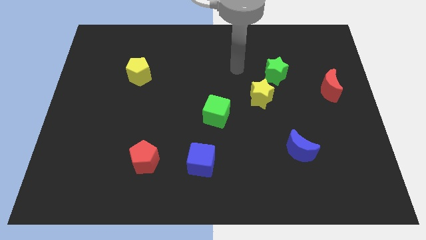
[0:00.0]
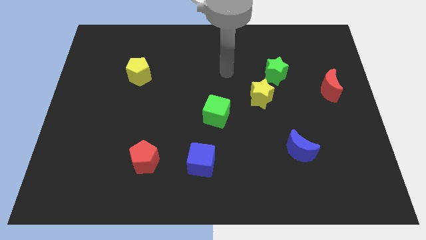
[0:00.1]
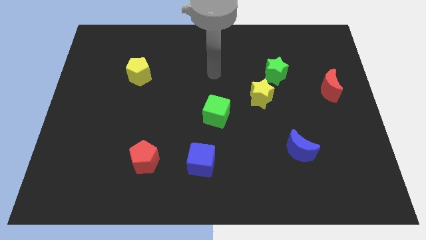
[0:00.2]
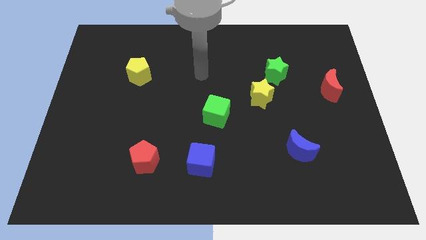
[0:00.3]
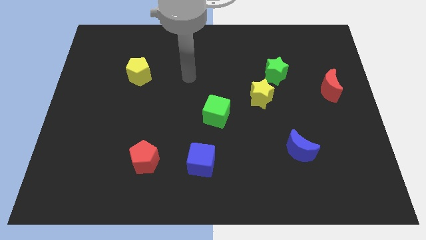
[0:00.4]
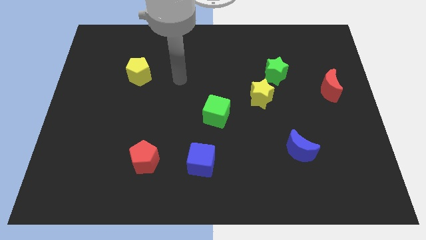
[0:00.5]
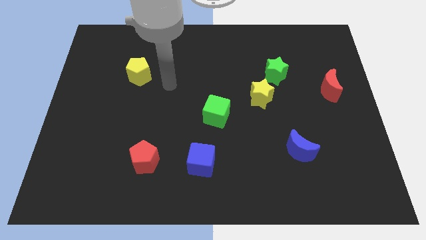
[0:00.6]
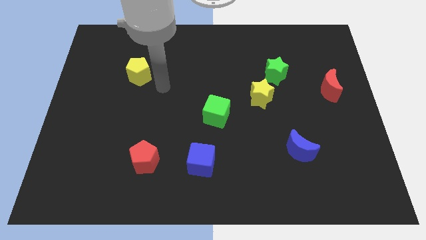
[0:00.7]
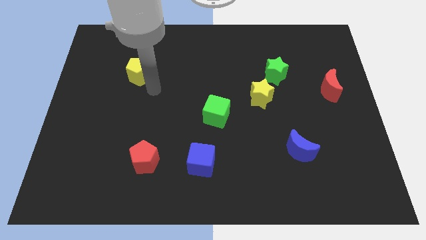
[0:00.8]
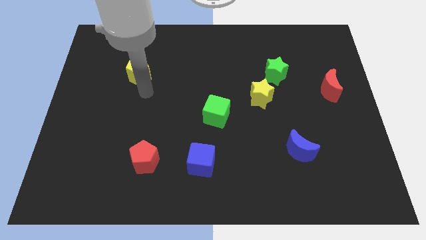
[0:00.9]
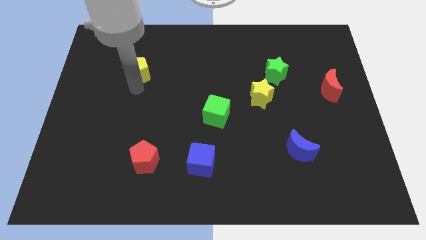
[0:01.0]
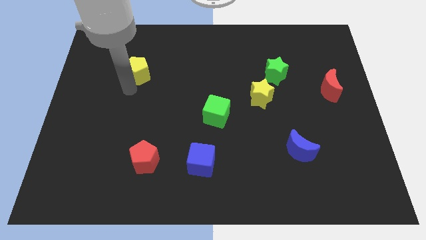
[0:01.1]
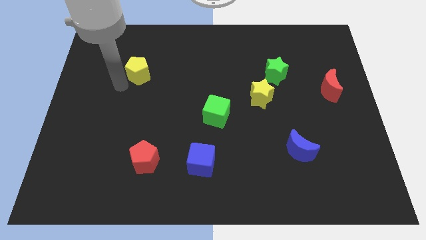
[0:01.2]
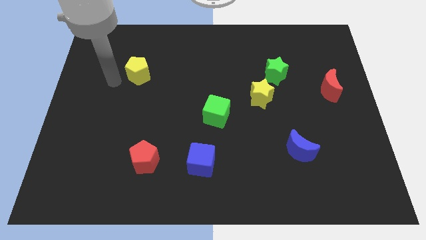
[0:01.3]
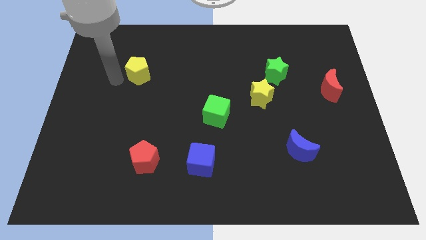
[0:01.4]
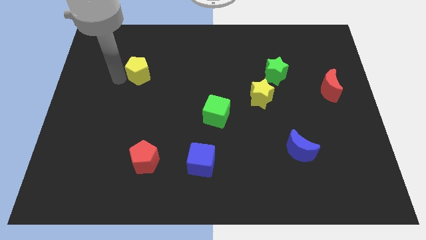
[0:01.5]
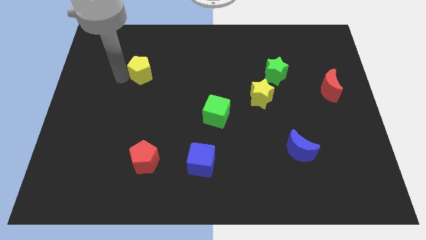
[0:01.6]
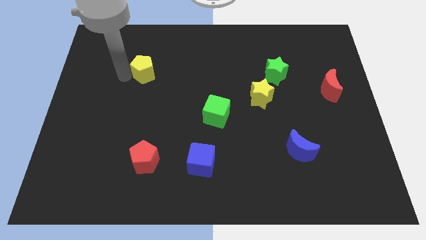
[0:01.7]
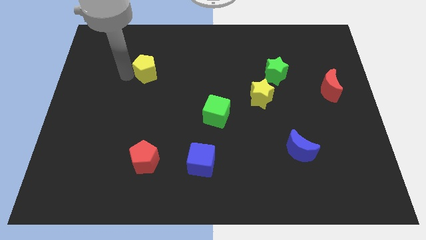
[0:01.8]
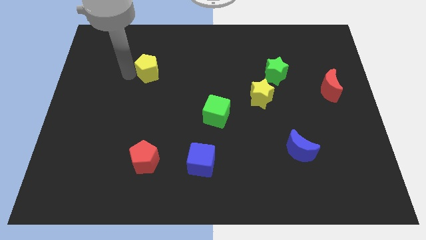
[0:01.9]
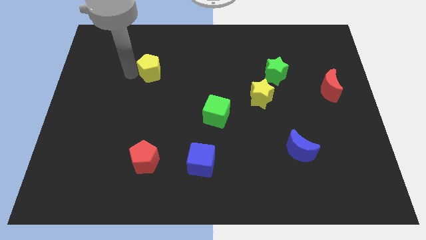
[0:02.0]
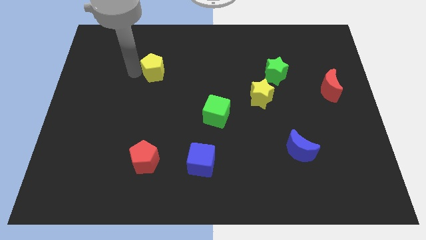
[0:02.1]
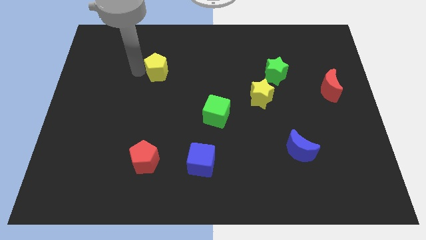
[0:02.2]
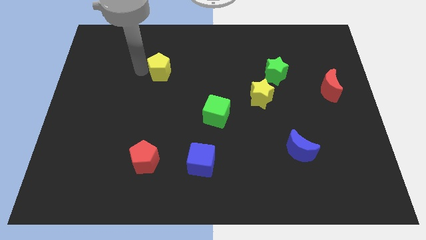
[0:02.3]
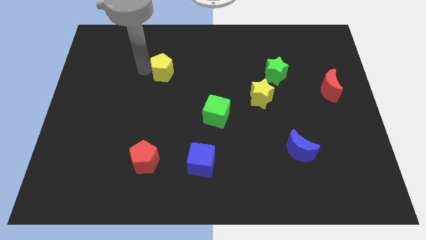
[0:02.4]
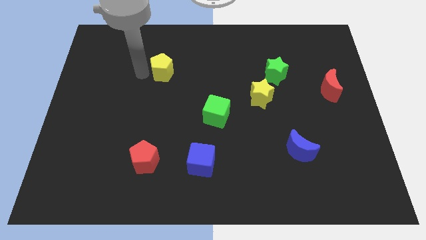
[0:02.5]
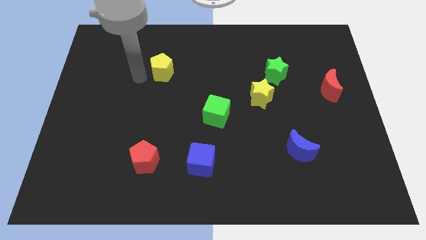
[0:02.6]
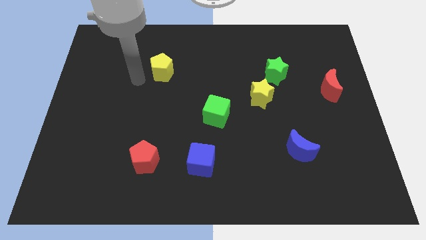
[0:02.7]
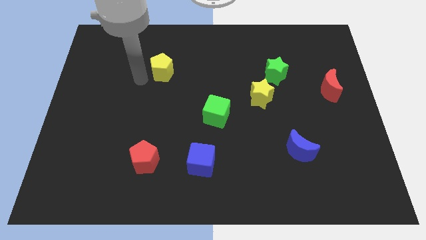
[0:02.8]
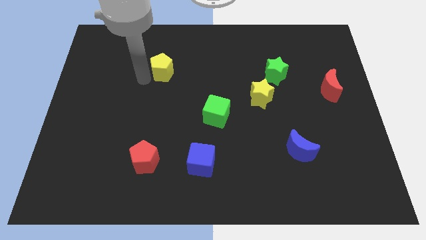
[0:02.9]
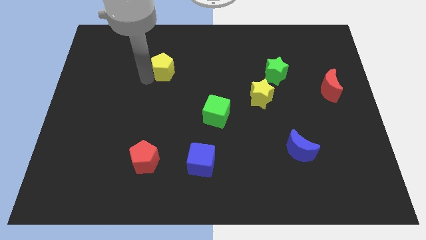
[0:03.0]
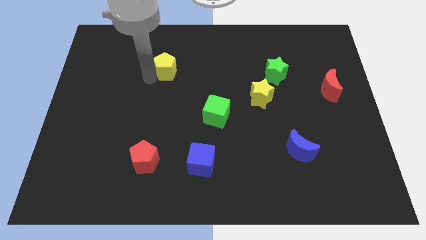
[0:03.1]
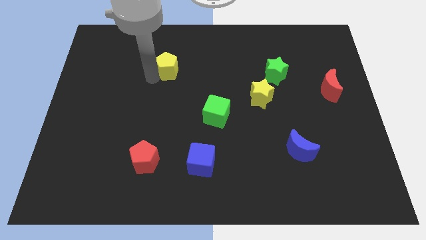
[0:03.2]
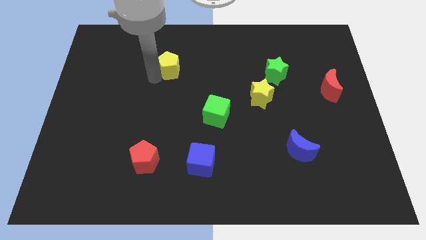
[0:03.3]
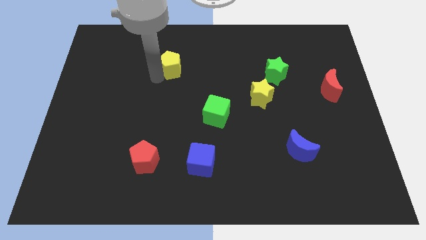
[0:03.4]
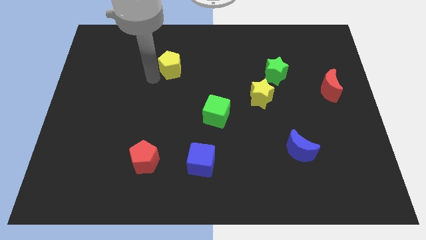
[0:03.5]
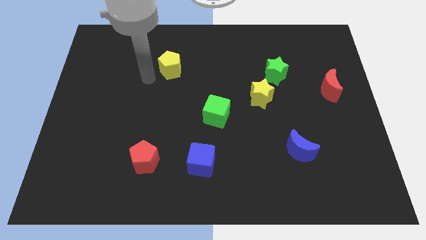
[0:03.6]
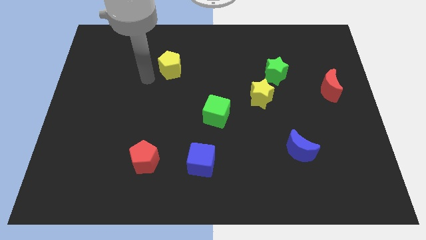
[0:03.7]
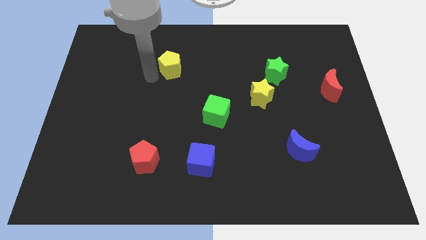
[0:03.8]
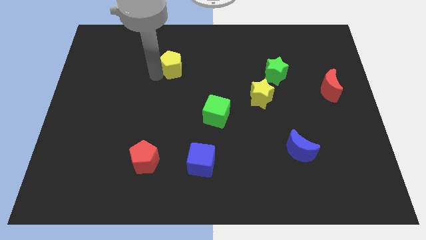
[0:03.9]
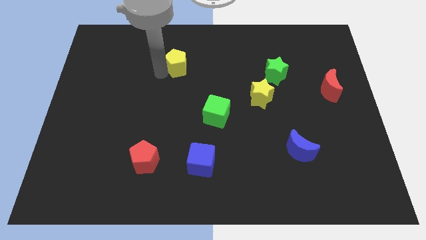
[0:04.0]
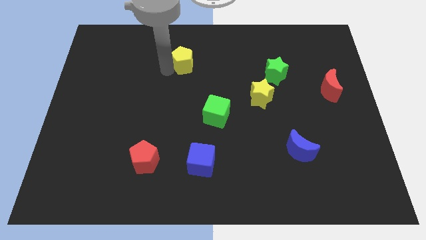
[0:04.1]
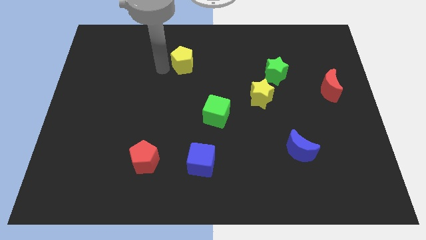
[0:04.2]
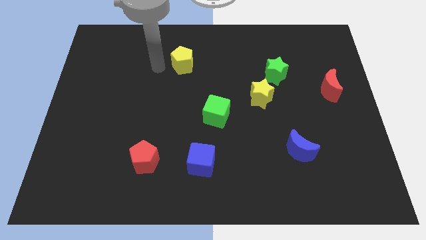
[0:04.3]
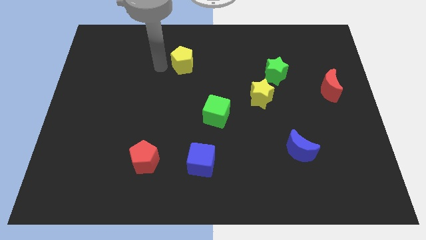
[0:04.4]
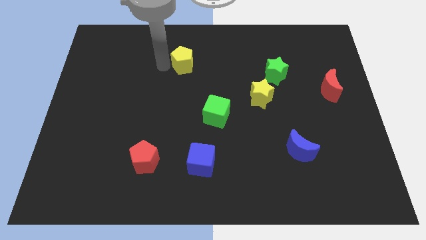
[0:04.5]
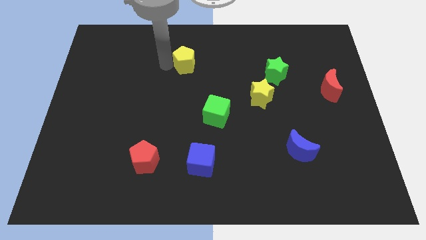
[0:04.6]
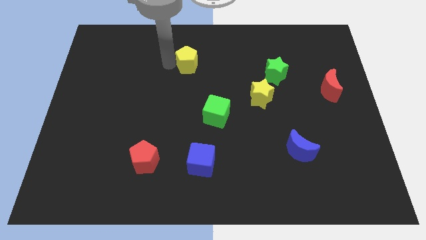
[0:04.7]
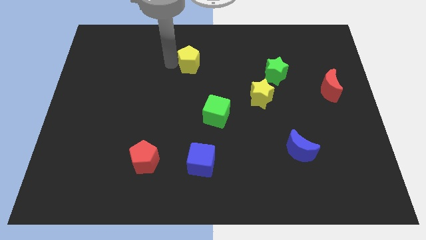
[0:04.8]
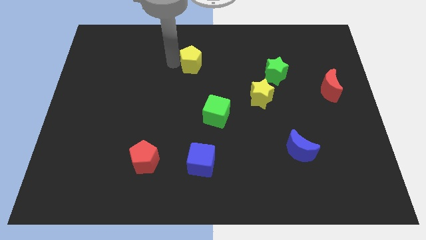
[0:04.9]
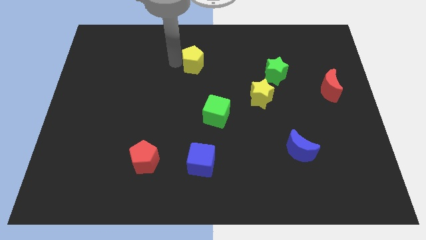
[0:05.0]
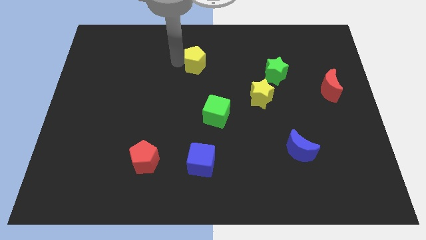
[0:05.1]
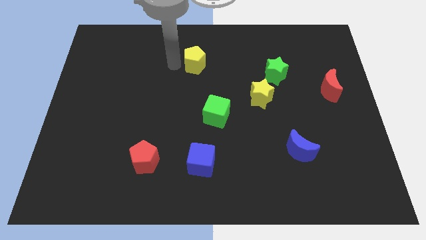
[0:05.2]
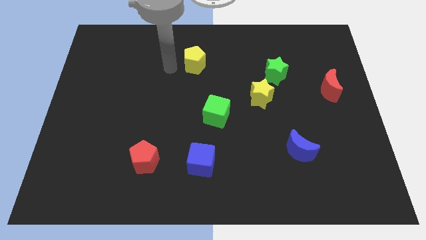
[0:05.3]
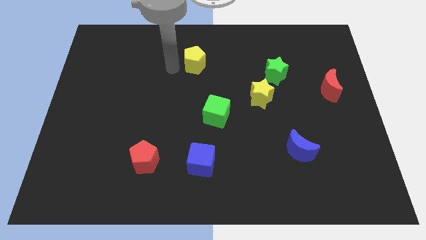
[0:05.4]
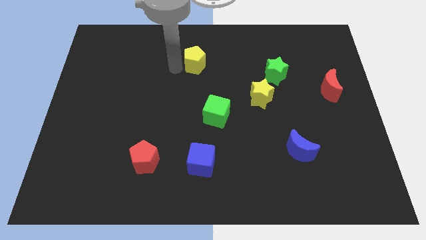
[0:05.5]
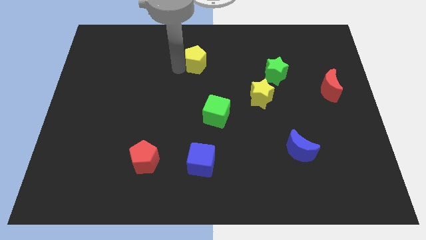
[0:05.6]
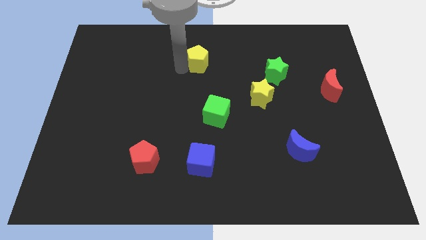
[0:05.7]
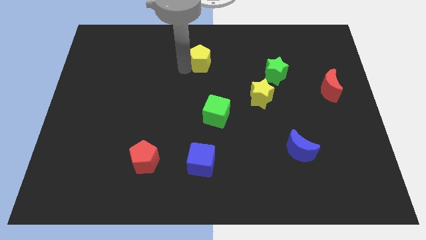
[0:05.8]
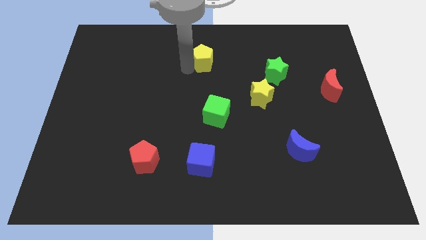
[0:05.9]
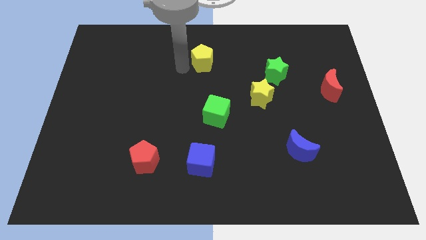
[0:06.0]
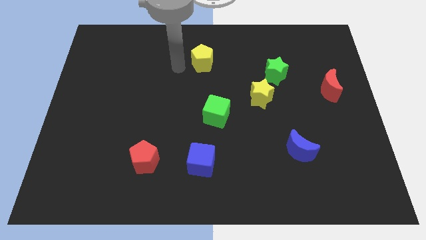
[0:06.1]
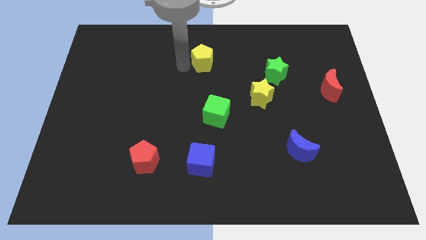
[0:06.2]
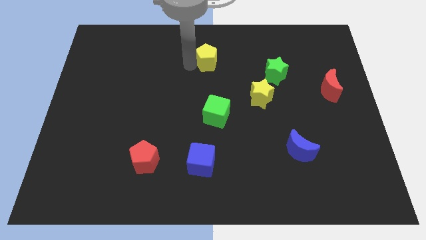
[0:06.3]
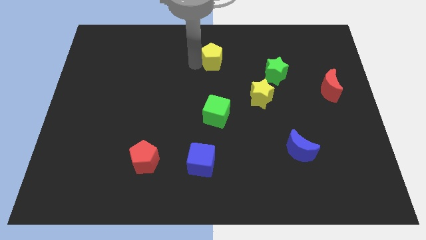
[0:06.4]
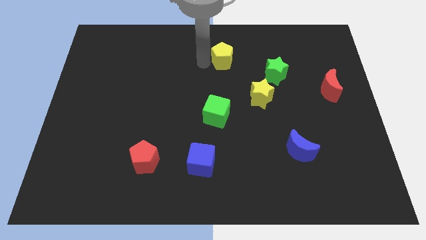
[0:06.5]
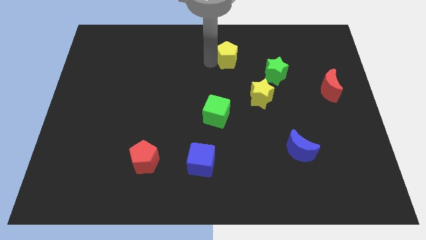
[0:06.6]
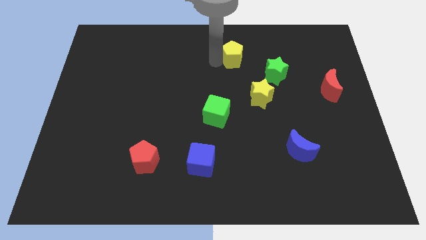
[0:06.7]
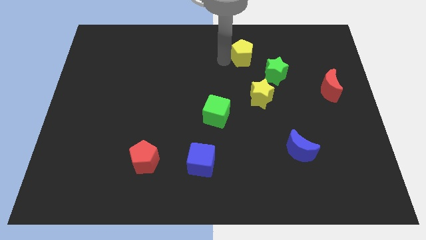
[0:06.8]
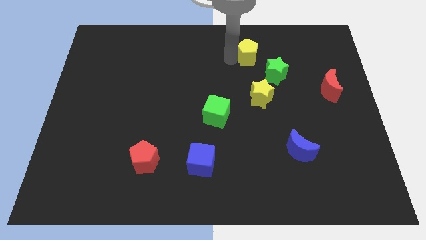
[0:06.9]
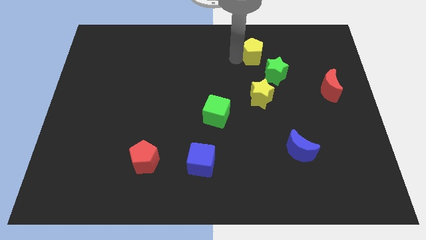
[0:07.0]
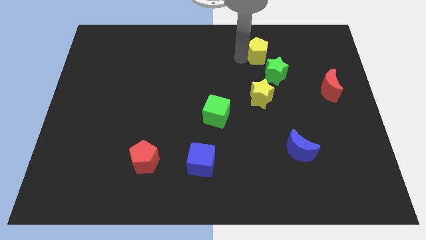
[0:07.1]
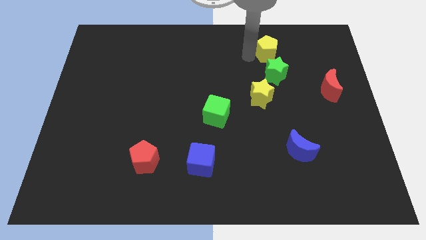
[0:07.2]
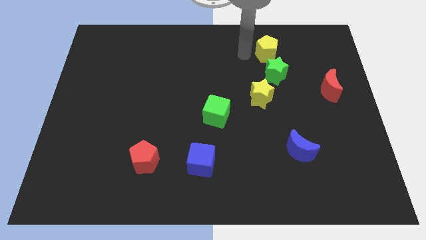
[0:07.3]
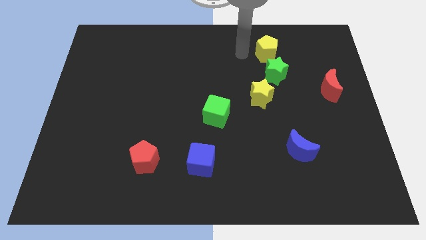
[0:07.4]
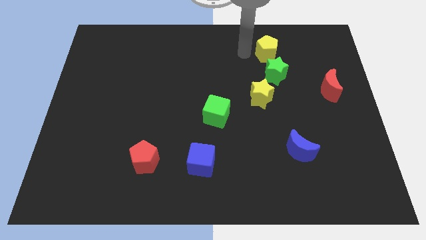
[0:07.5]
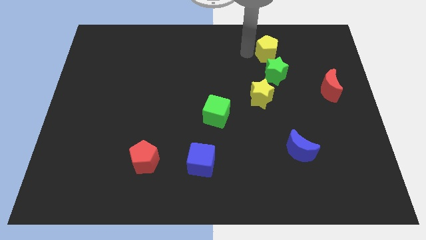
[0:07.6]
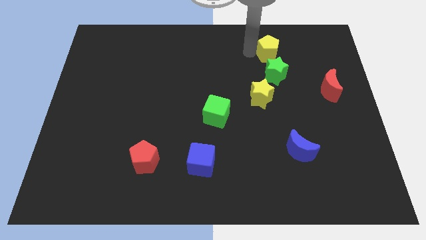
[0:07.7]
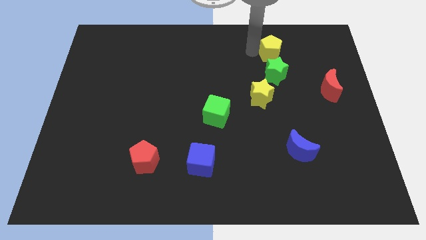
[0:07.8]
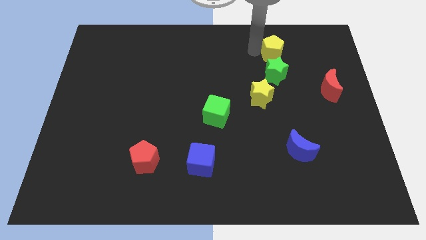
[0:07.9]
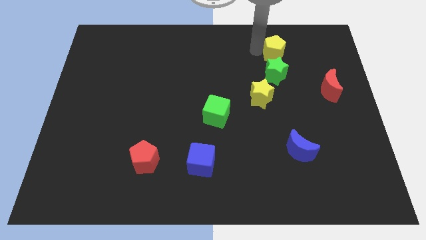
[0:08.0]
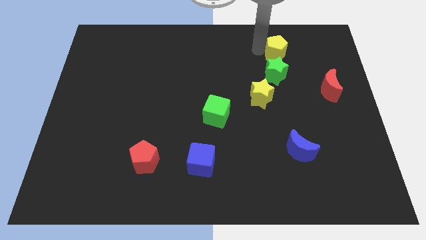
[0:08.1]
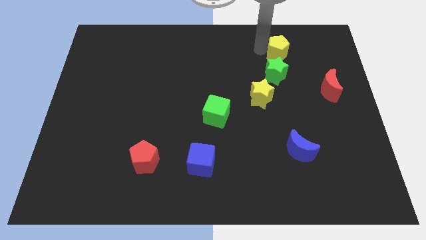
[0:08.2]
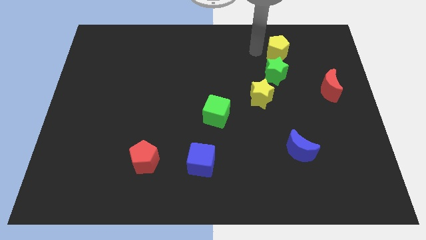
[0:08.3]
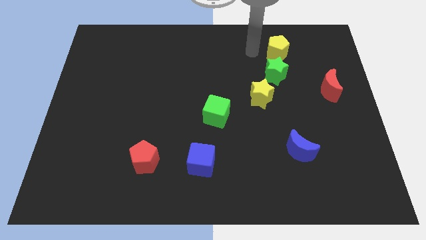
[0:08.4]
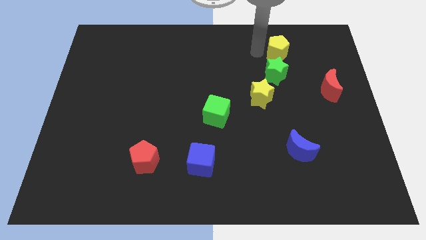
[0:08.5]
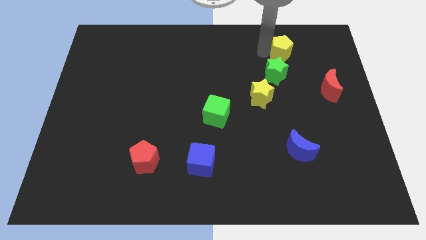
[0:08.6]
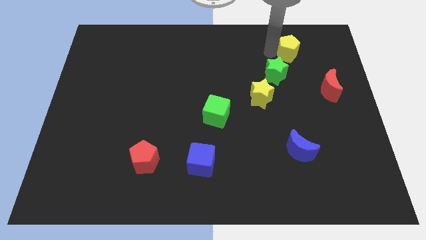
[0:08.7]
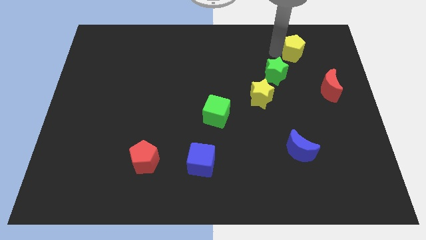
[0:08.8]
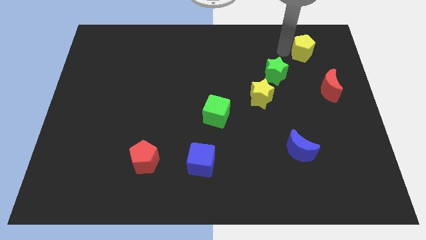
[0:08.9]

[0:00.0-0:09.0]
slide the yellow pentagon above the red moon
